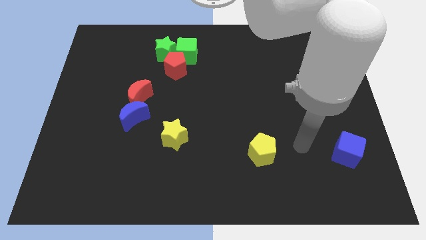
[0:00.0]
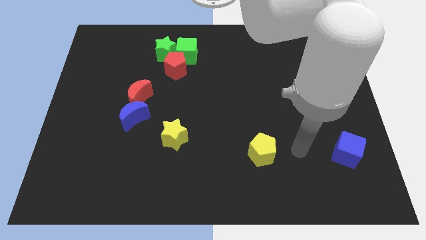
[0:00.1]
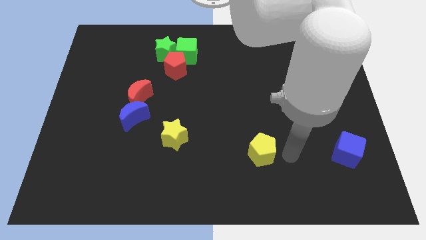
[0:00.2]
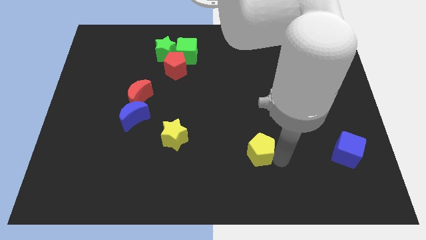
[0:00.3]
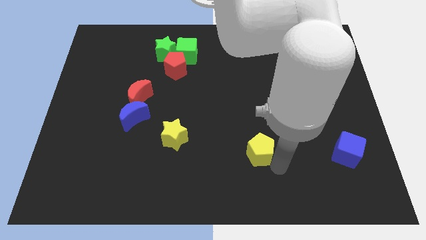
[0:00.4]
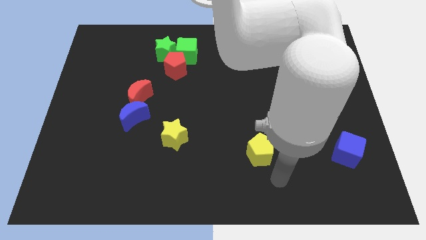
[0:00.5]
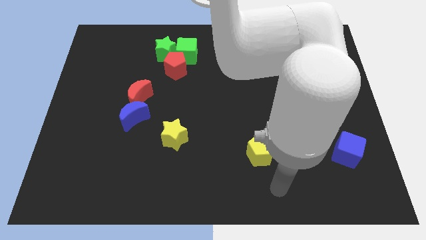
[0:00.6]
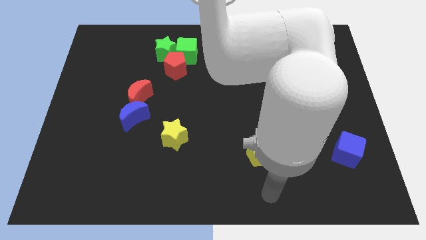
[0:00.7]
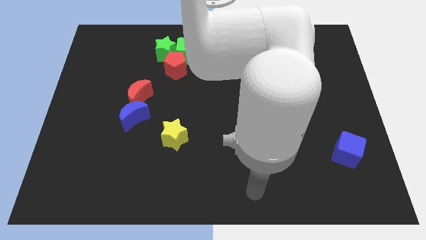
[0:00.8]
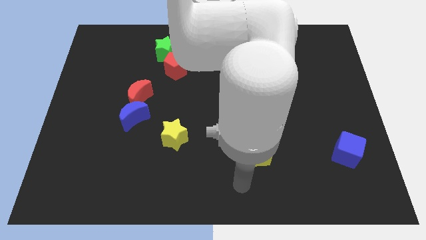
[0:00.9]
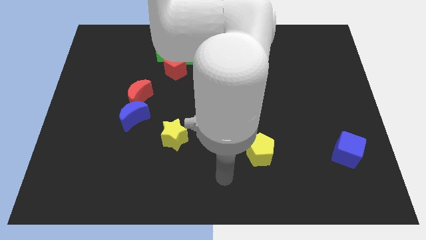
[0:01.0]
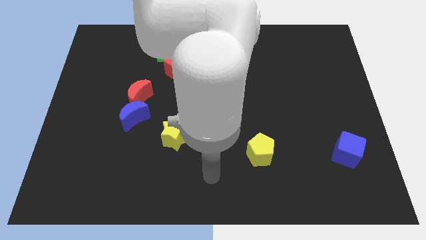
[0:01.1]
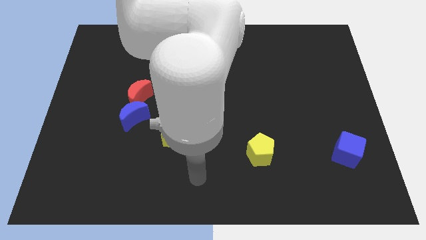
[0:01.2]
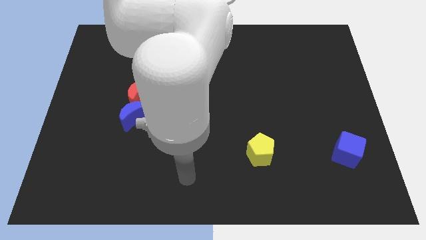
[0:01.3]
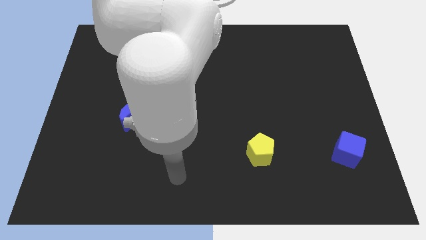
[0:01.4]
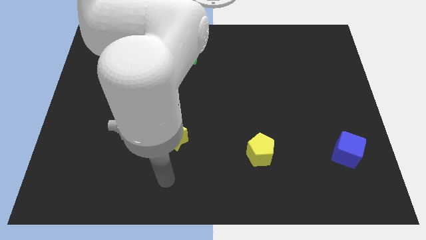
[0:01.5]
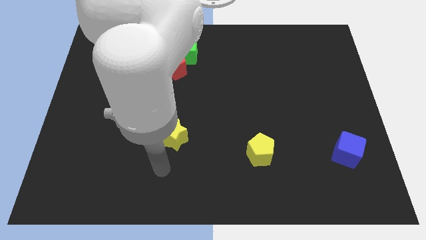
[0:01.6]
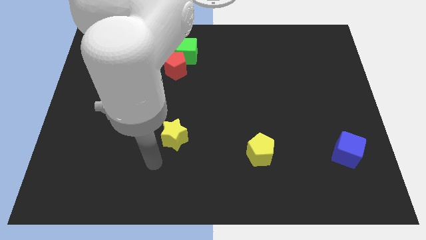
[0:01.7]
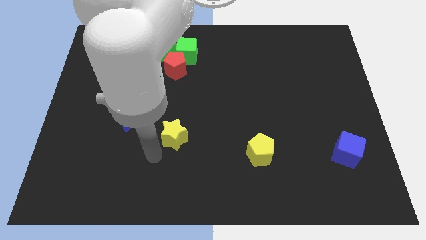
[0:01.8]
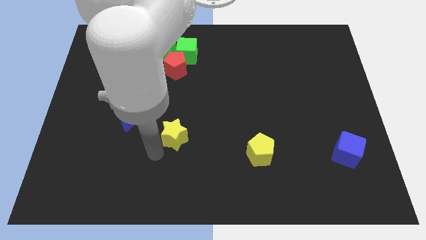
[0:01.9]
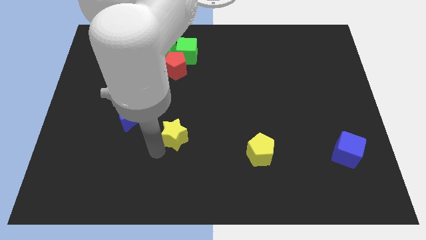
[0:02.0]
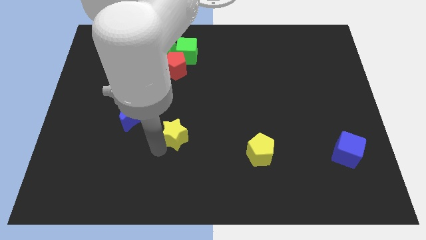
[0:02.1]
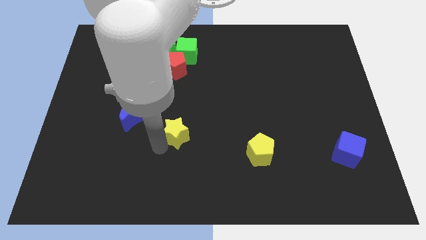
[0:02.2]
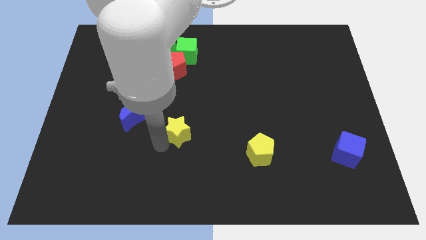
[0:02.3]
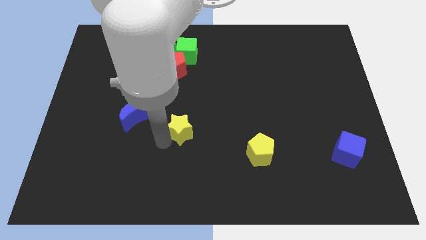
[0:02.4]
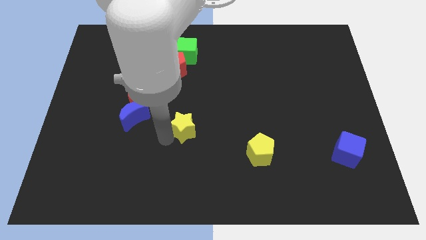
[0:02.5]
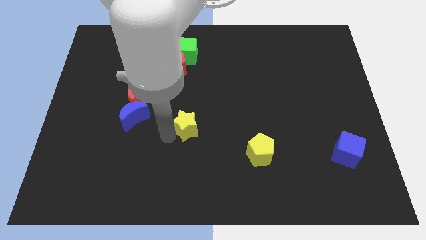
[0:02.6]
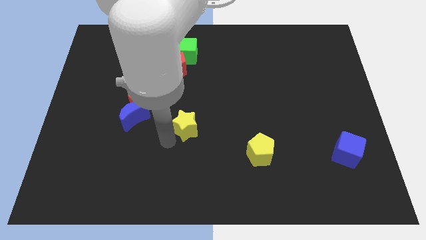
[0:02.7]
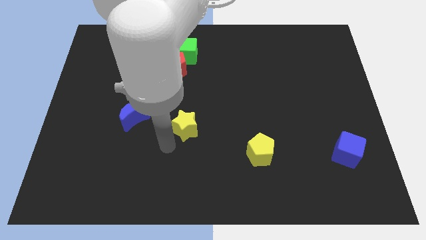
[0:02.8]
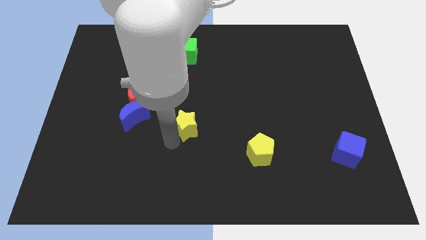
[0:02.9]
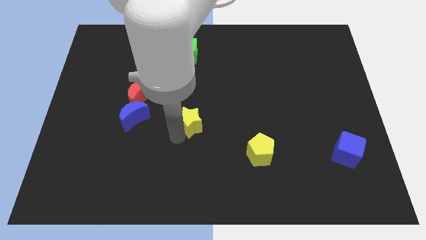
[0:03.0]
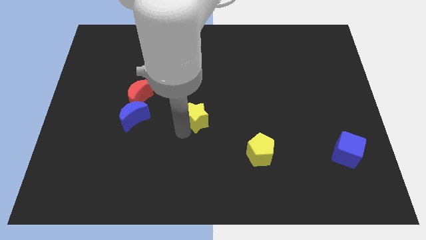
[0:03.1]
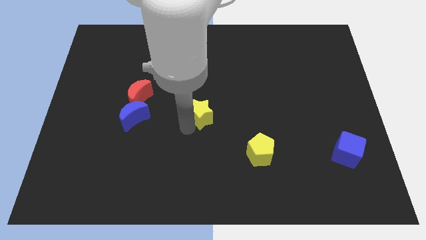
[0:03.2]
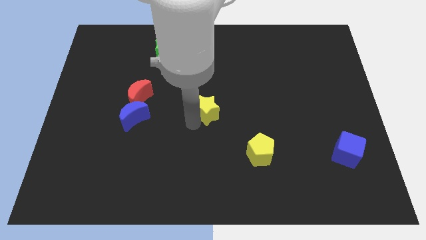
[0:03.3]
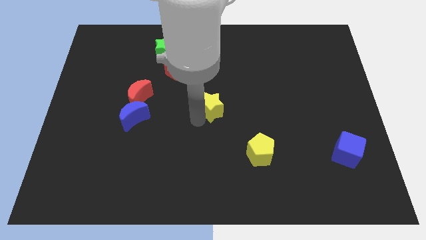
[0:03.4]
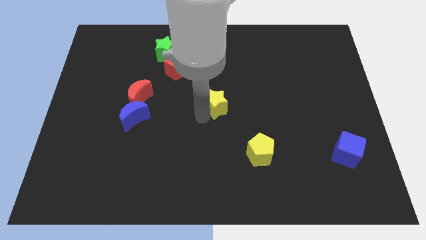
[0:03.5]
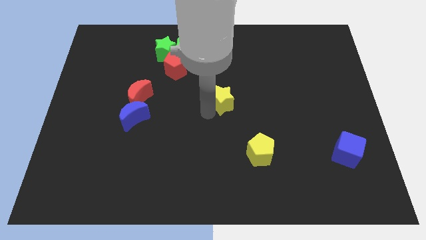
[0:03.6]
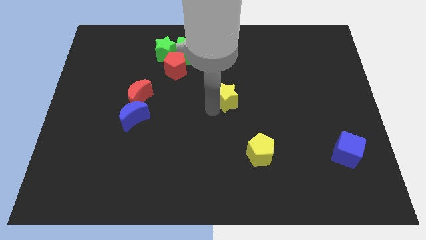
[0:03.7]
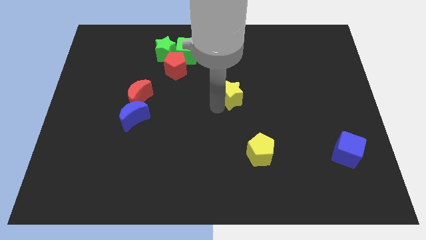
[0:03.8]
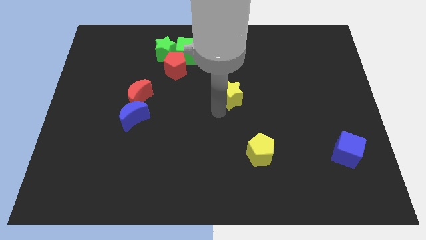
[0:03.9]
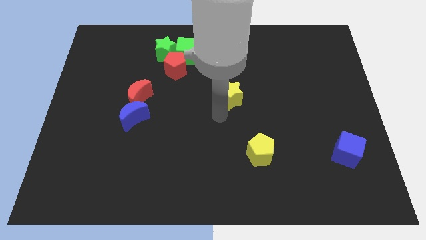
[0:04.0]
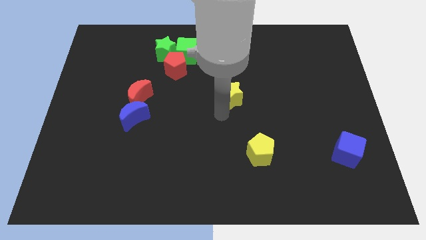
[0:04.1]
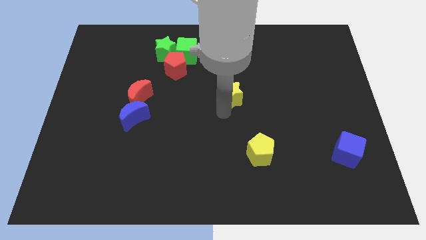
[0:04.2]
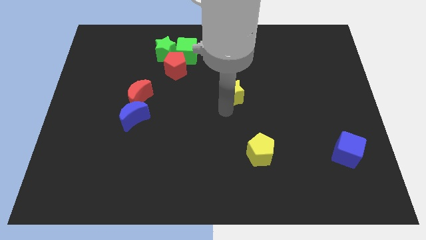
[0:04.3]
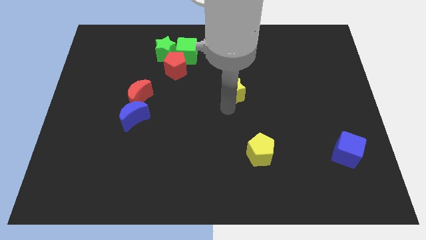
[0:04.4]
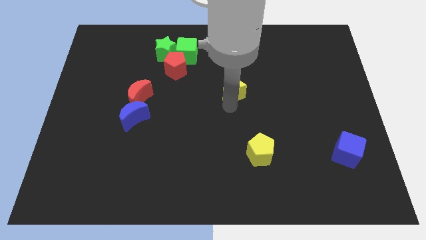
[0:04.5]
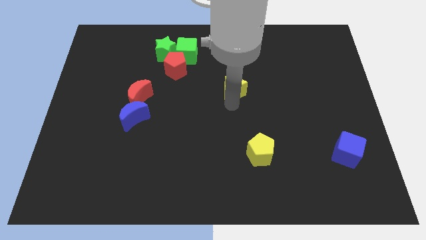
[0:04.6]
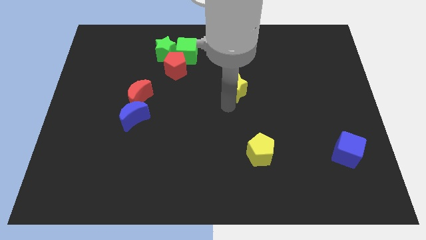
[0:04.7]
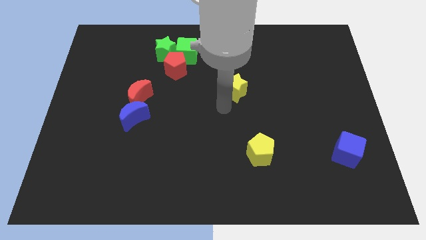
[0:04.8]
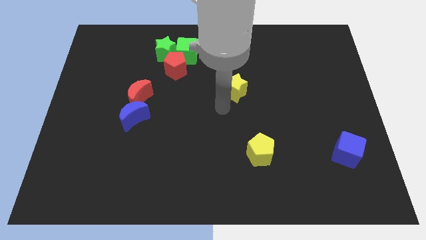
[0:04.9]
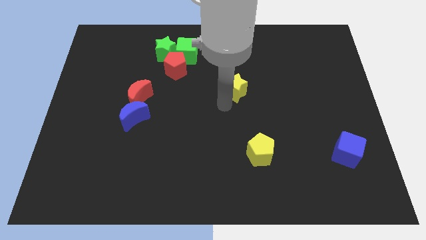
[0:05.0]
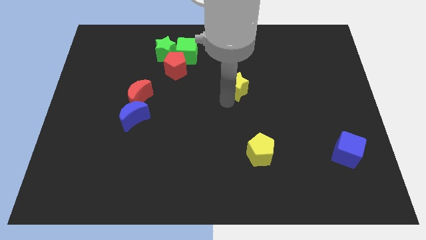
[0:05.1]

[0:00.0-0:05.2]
move the yellow star up and then to the right

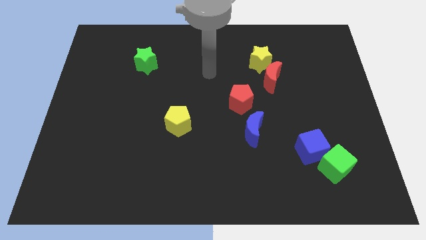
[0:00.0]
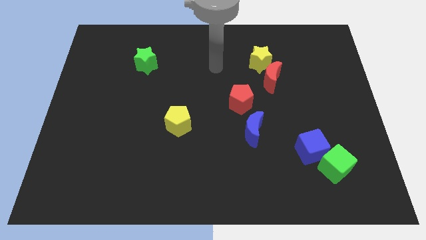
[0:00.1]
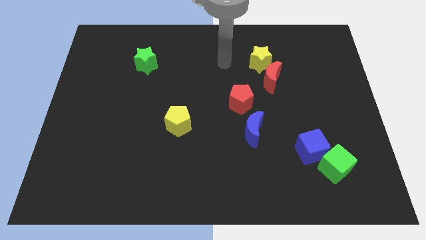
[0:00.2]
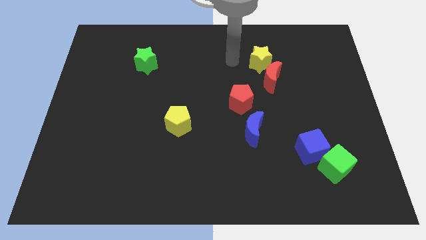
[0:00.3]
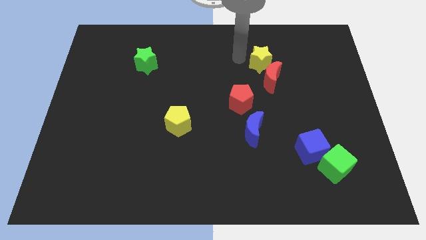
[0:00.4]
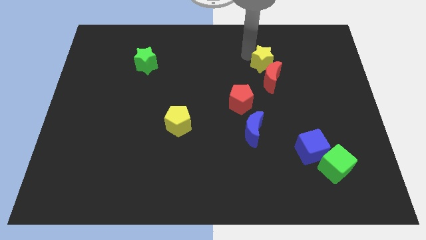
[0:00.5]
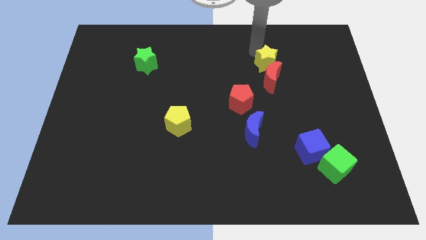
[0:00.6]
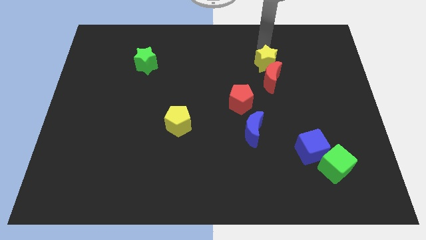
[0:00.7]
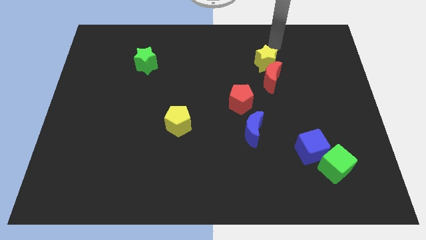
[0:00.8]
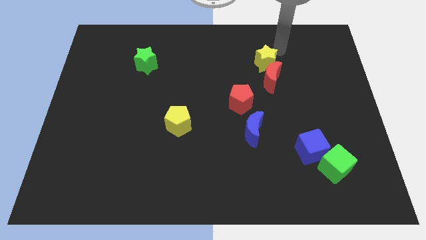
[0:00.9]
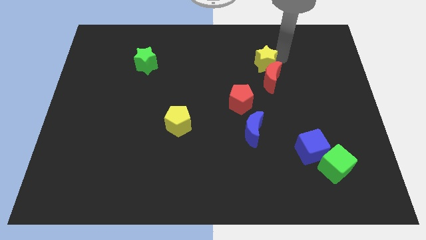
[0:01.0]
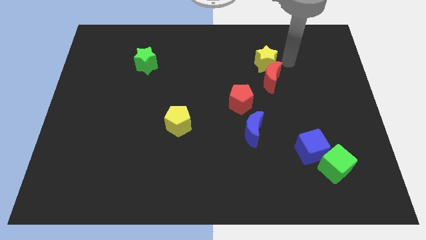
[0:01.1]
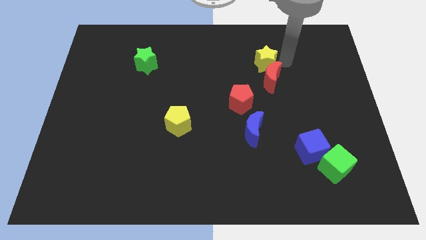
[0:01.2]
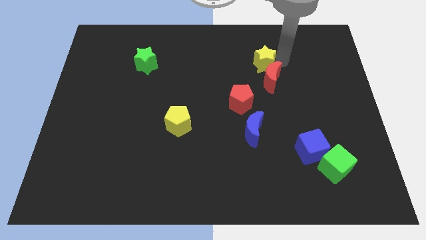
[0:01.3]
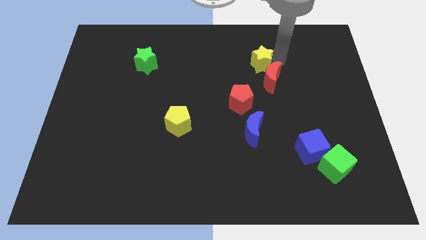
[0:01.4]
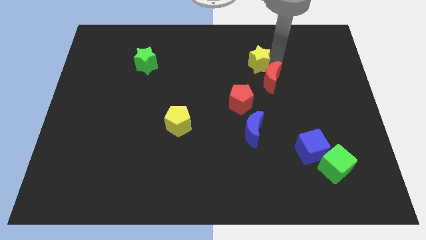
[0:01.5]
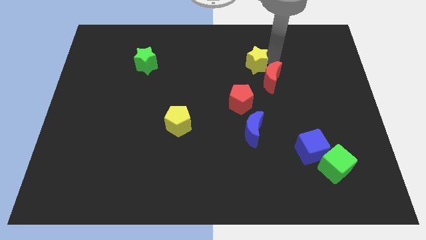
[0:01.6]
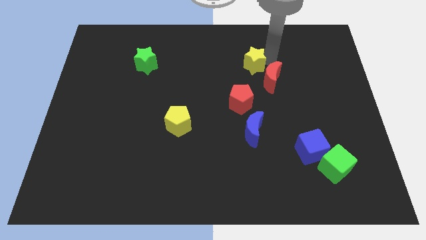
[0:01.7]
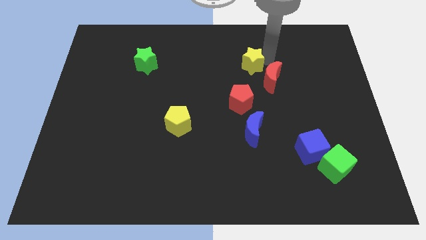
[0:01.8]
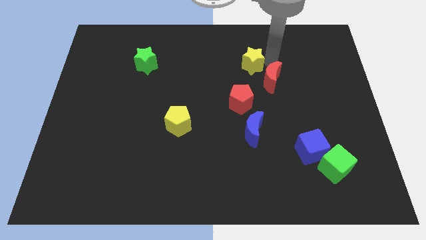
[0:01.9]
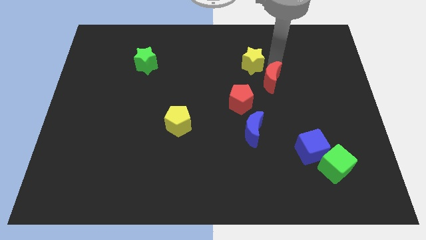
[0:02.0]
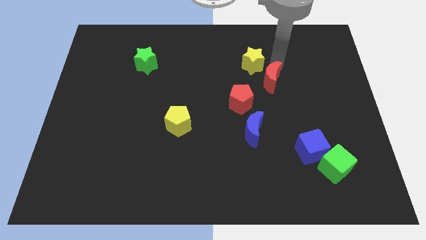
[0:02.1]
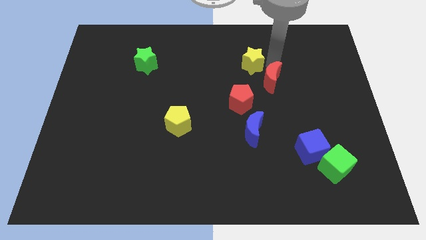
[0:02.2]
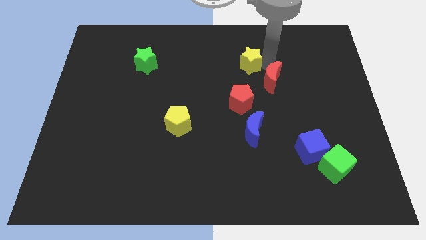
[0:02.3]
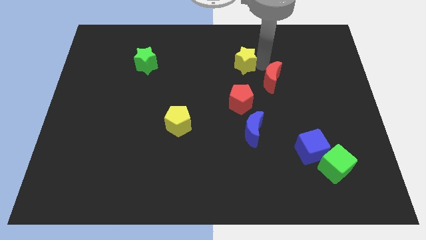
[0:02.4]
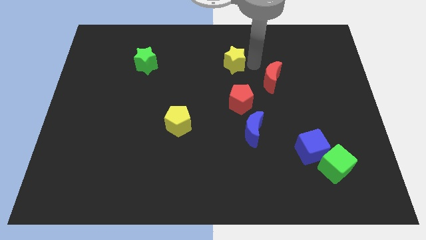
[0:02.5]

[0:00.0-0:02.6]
slide the yellow star to the left a bit

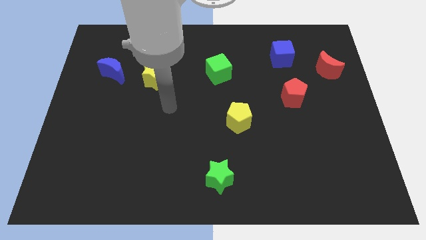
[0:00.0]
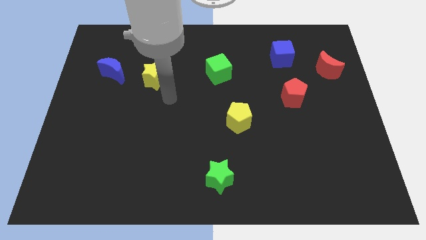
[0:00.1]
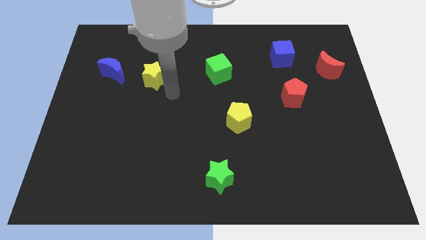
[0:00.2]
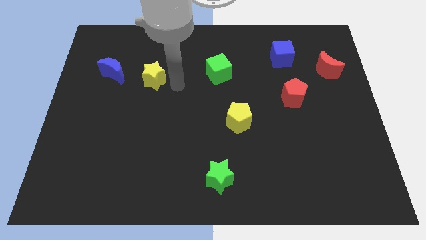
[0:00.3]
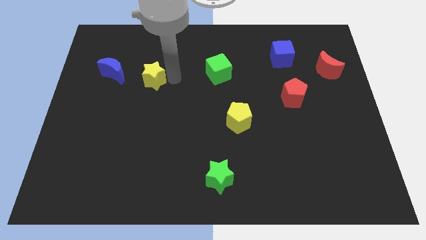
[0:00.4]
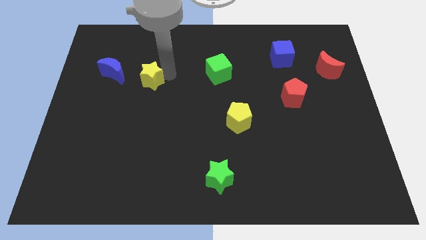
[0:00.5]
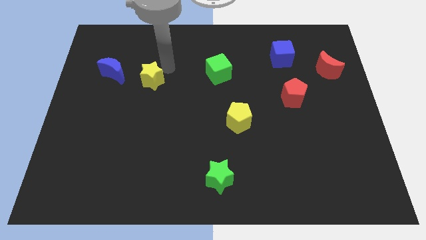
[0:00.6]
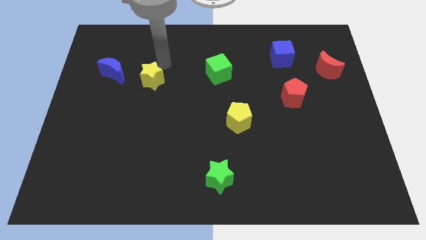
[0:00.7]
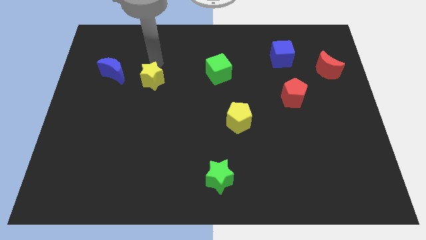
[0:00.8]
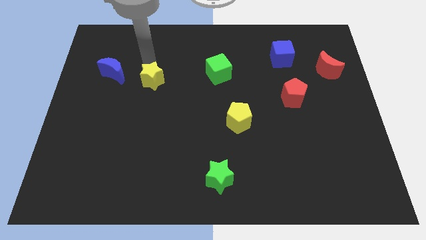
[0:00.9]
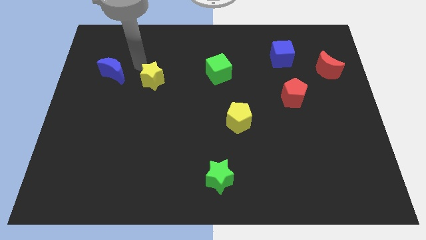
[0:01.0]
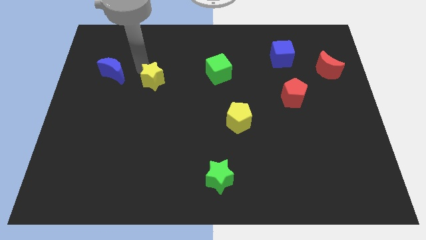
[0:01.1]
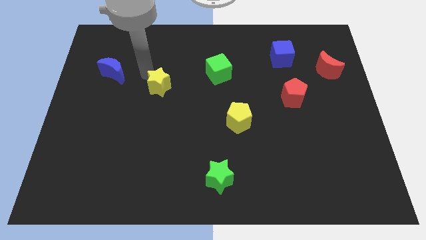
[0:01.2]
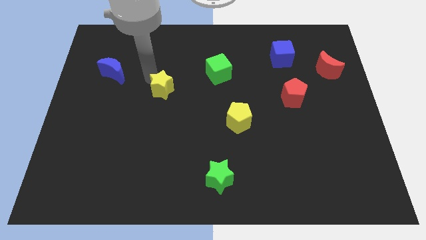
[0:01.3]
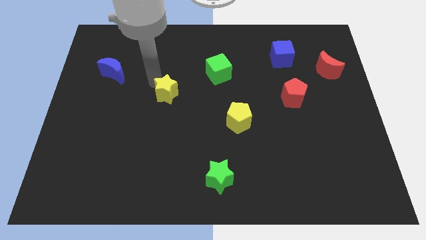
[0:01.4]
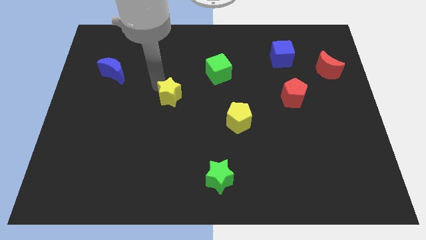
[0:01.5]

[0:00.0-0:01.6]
slightly push the yellow star diagonally down and right
